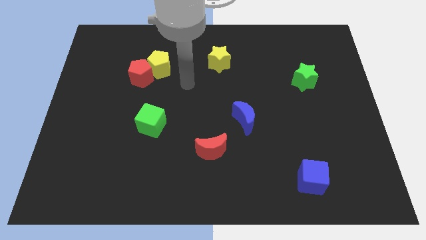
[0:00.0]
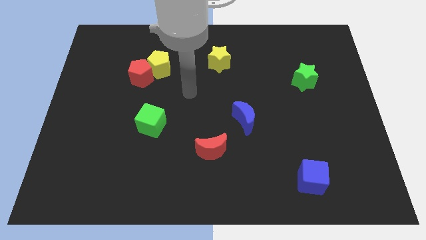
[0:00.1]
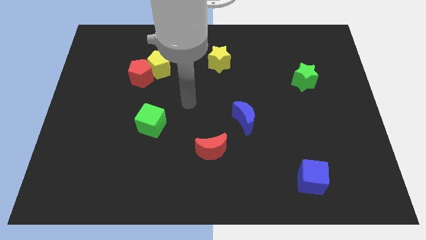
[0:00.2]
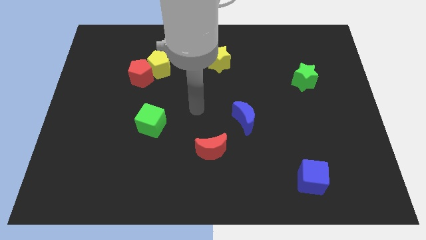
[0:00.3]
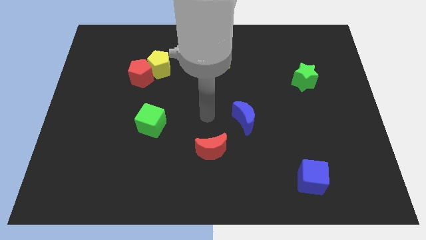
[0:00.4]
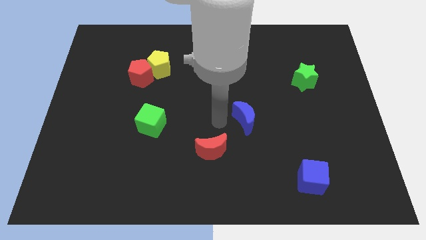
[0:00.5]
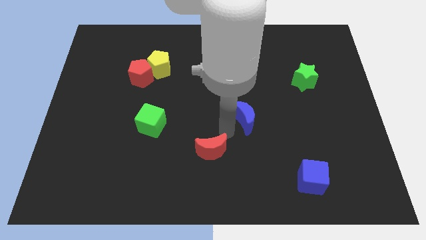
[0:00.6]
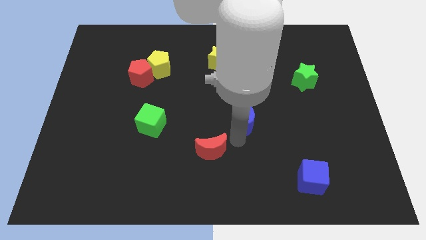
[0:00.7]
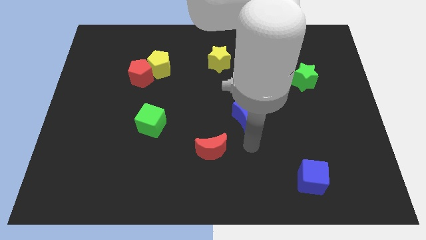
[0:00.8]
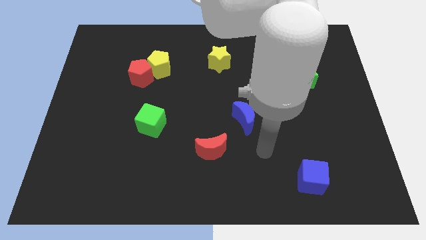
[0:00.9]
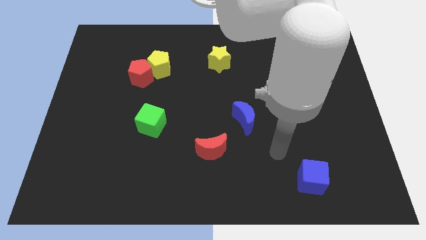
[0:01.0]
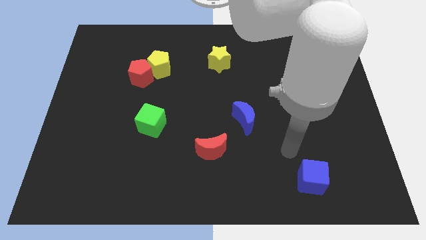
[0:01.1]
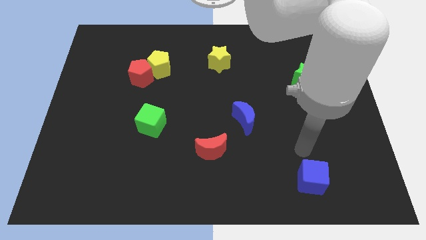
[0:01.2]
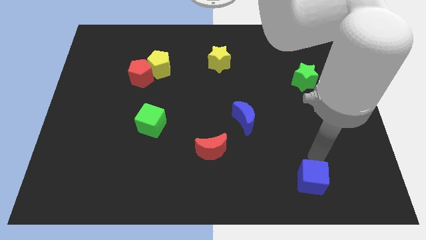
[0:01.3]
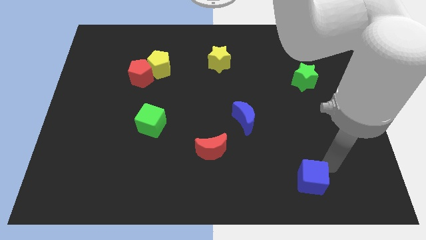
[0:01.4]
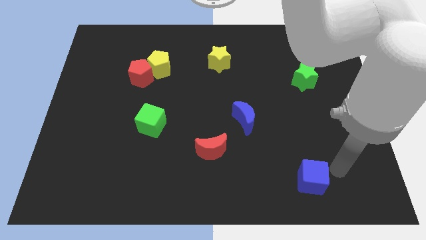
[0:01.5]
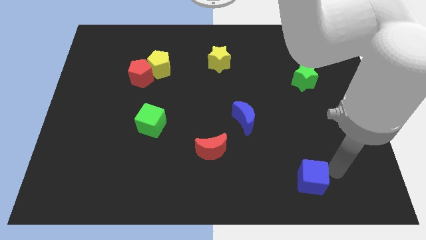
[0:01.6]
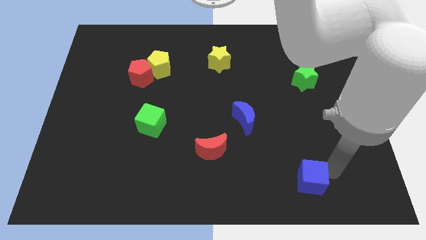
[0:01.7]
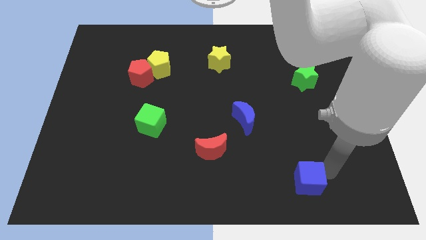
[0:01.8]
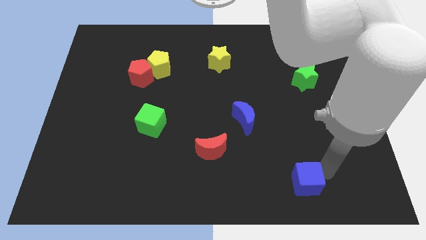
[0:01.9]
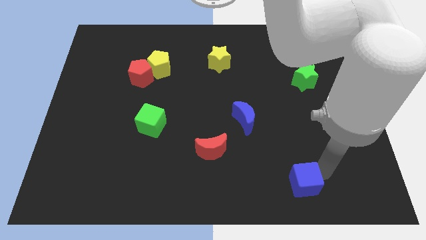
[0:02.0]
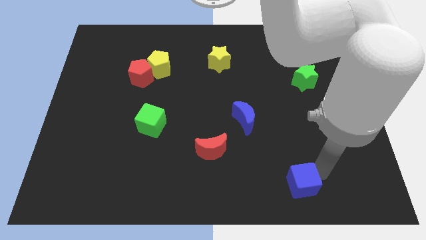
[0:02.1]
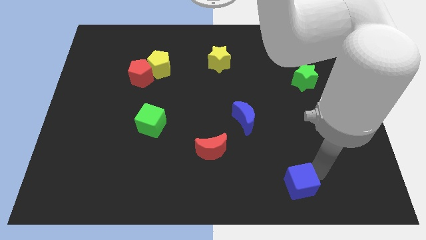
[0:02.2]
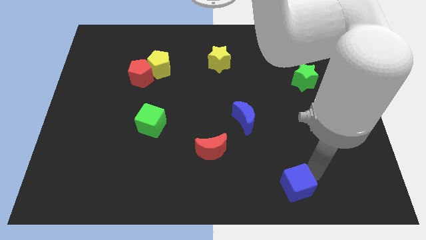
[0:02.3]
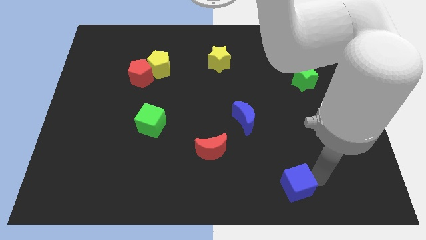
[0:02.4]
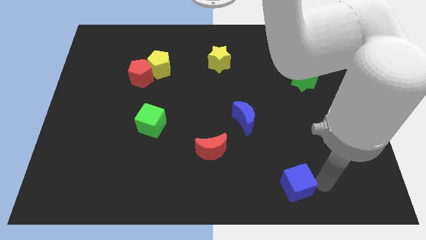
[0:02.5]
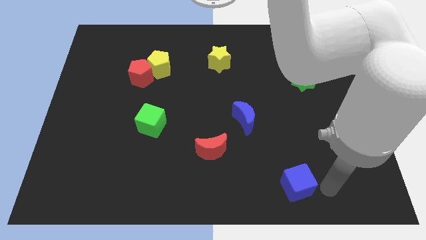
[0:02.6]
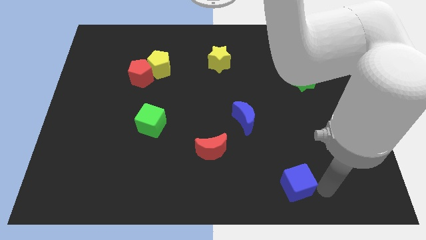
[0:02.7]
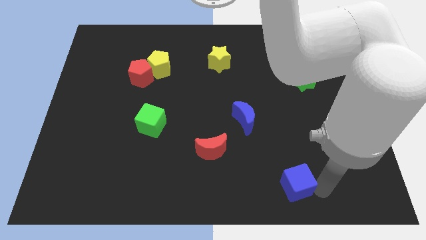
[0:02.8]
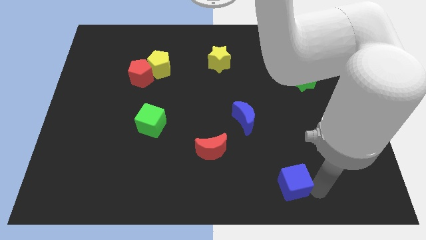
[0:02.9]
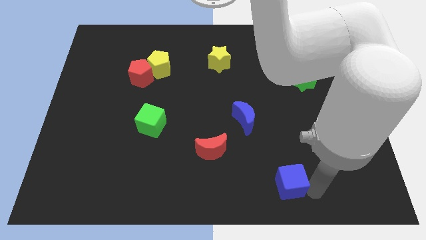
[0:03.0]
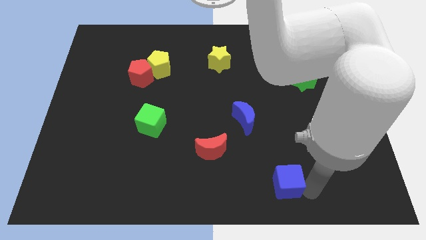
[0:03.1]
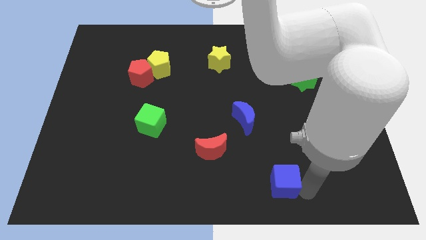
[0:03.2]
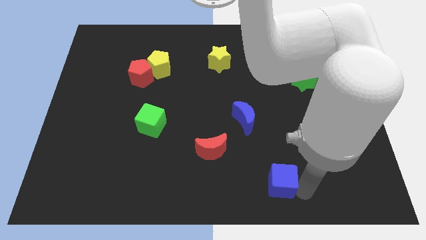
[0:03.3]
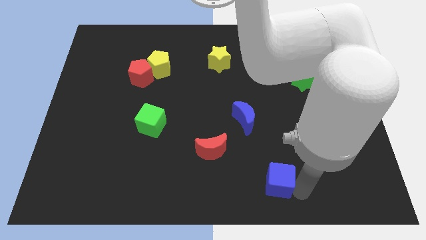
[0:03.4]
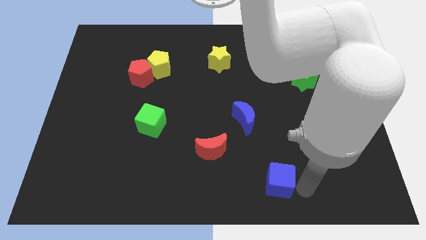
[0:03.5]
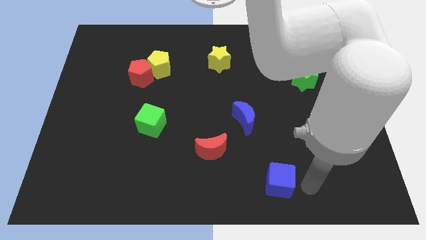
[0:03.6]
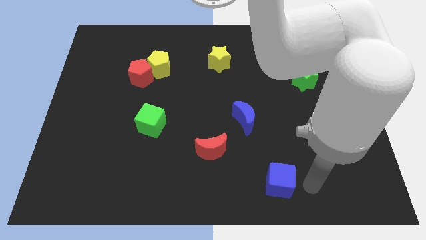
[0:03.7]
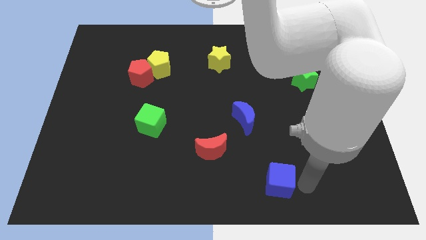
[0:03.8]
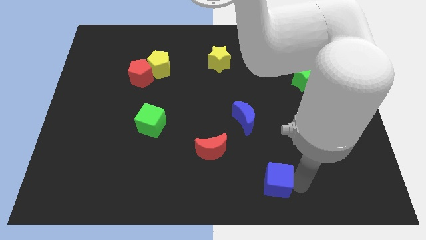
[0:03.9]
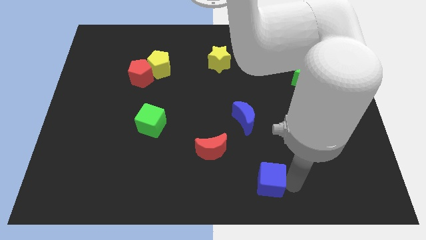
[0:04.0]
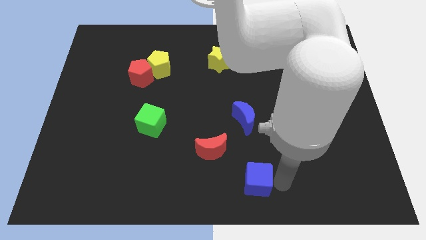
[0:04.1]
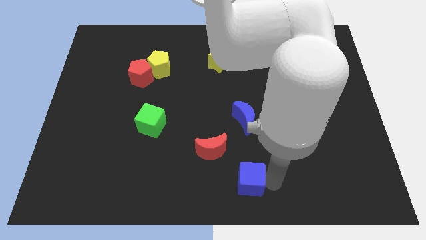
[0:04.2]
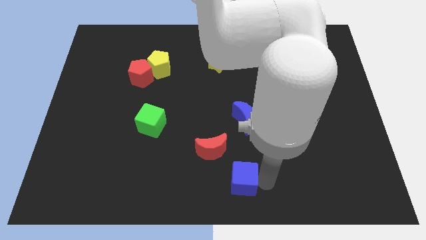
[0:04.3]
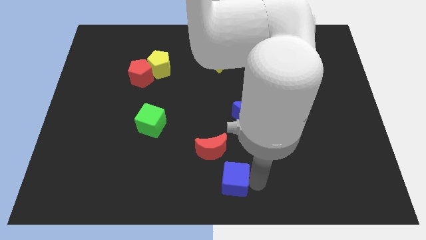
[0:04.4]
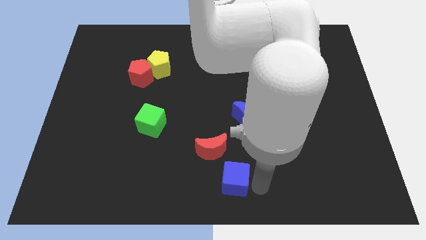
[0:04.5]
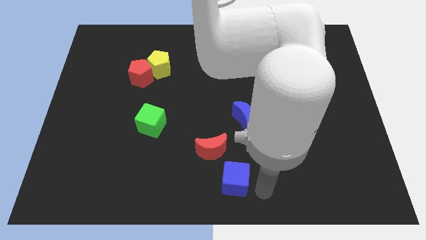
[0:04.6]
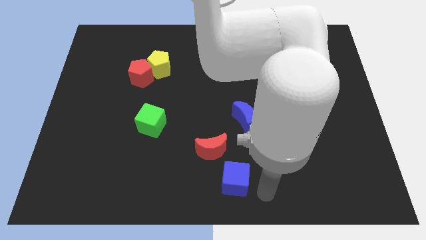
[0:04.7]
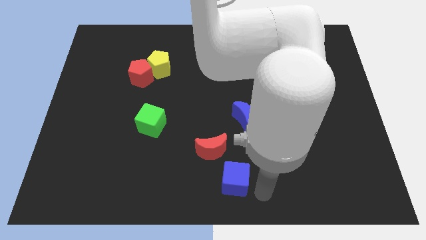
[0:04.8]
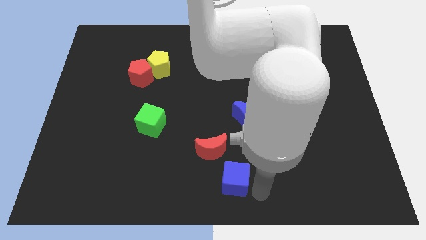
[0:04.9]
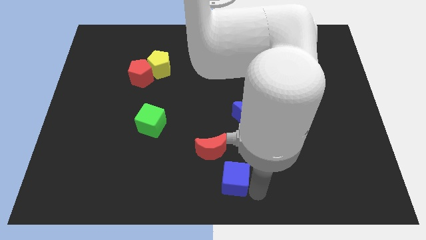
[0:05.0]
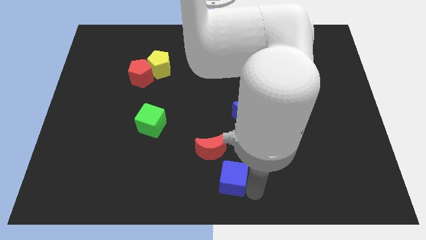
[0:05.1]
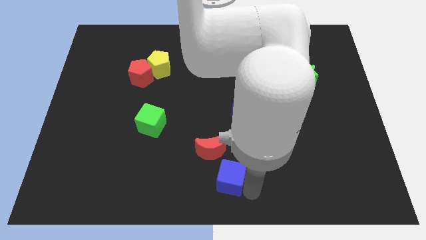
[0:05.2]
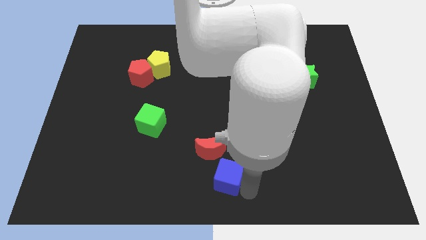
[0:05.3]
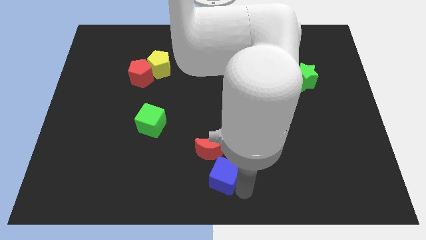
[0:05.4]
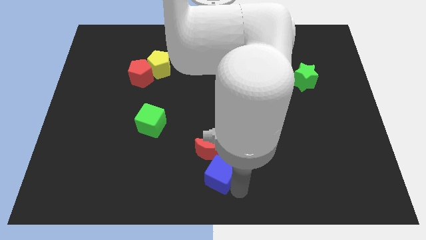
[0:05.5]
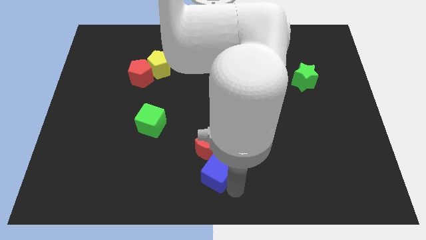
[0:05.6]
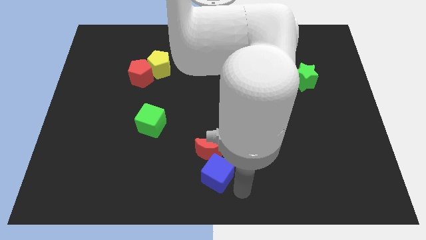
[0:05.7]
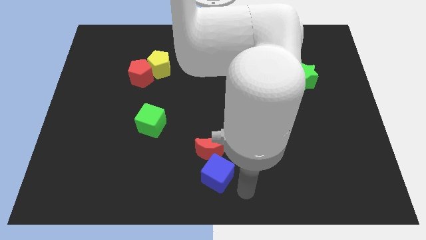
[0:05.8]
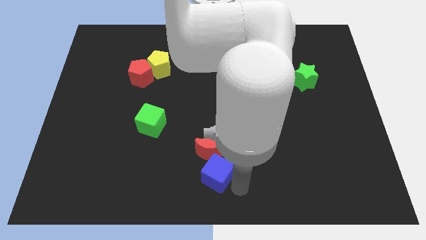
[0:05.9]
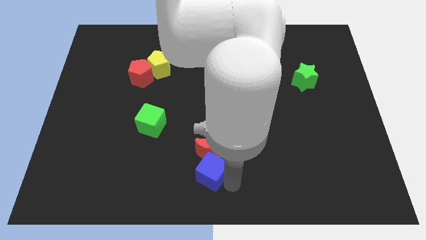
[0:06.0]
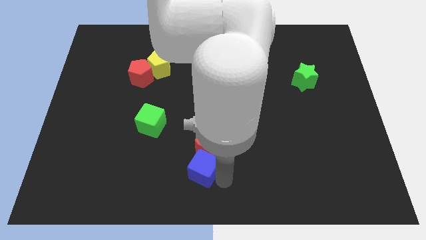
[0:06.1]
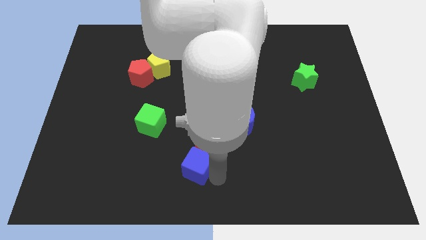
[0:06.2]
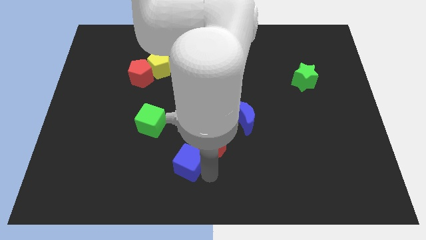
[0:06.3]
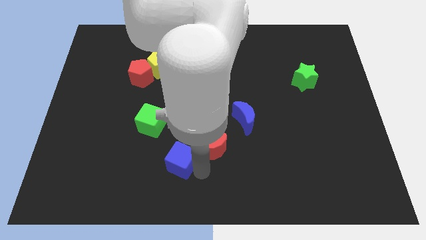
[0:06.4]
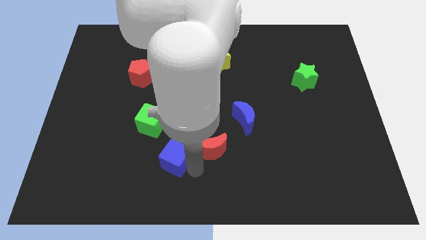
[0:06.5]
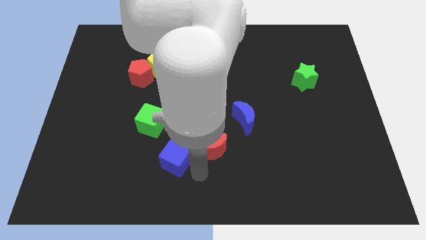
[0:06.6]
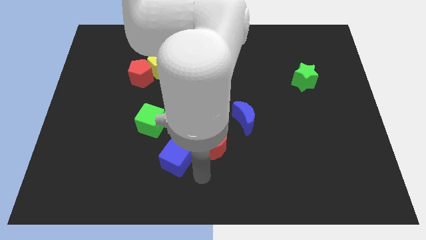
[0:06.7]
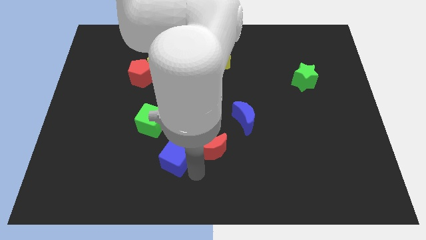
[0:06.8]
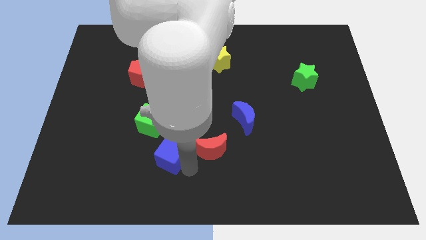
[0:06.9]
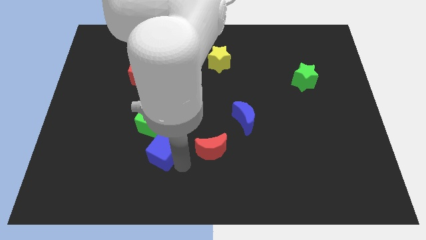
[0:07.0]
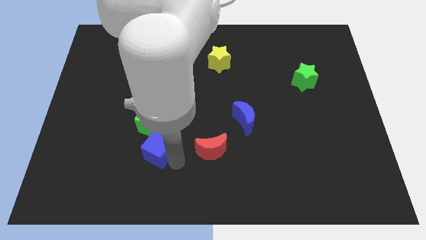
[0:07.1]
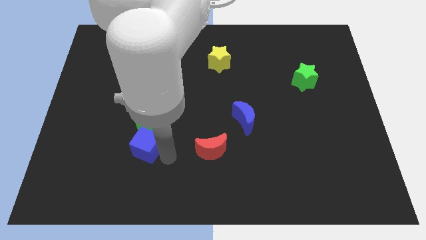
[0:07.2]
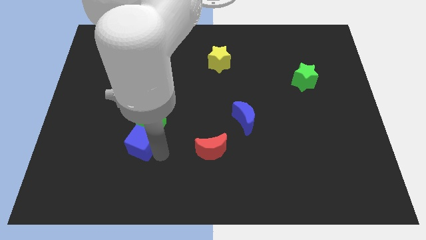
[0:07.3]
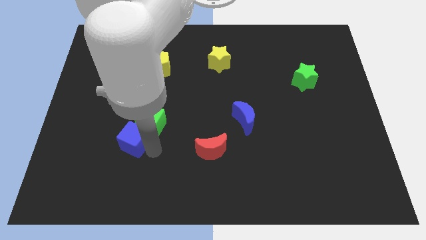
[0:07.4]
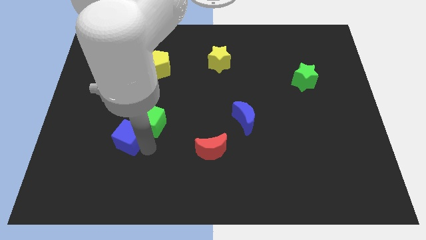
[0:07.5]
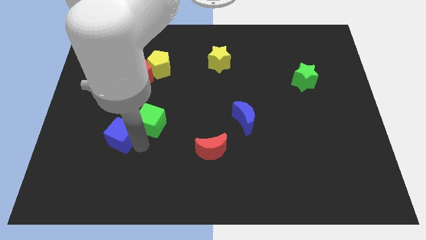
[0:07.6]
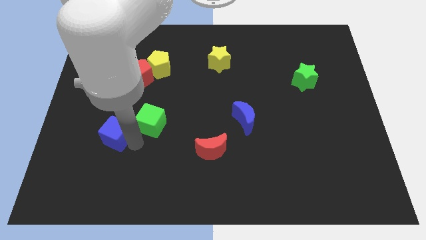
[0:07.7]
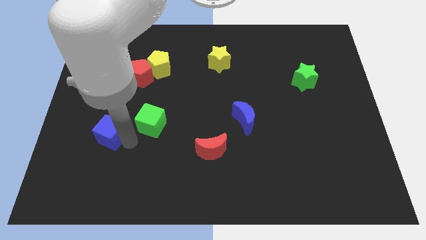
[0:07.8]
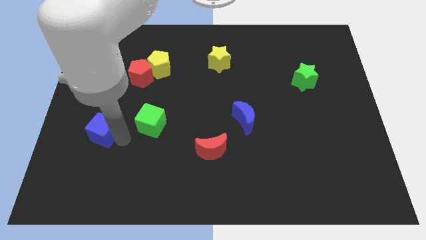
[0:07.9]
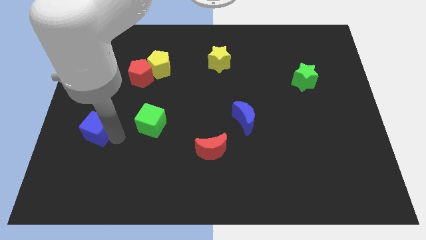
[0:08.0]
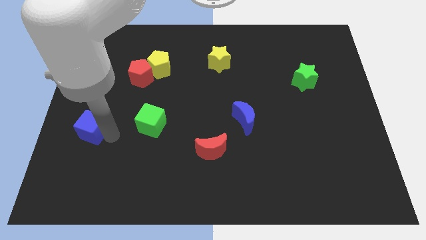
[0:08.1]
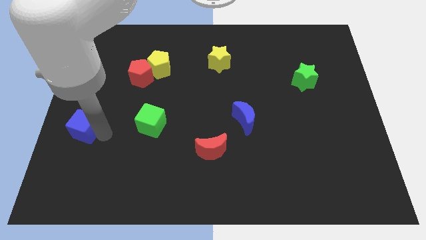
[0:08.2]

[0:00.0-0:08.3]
slide the blue cube to the left side of the board
